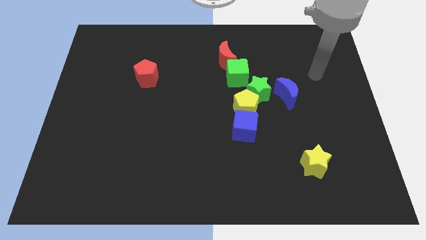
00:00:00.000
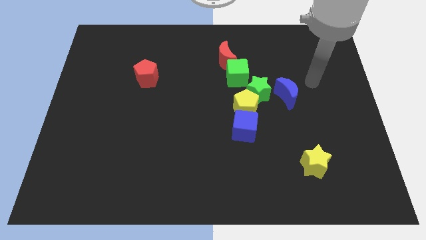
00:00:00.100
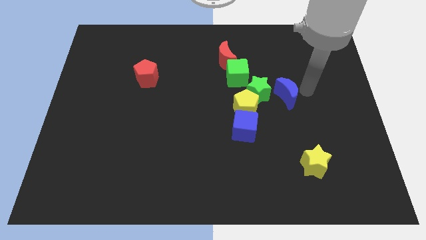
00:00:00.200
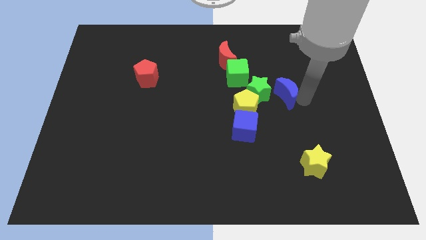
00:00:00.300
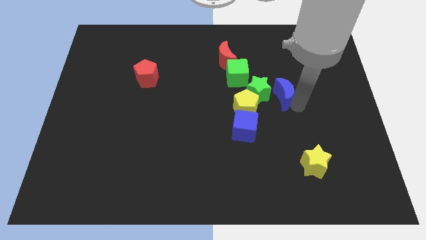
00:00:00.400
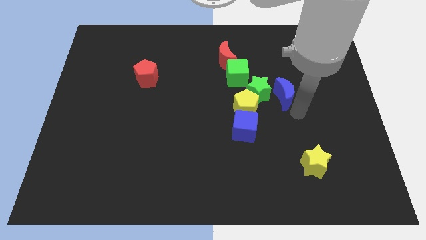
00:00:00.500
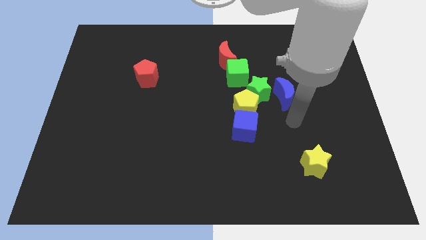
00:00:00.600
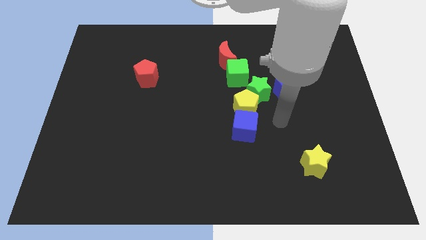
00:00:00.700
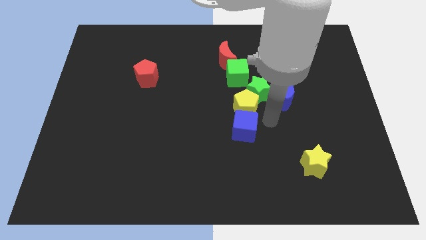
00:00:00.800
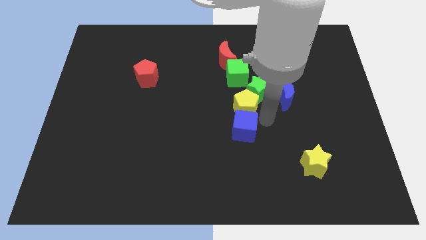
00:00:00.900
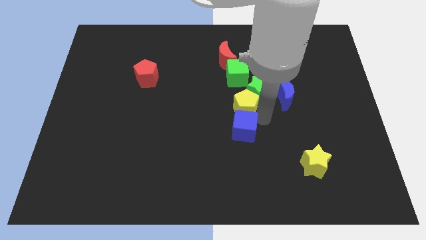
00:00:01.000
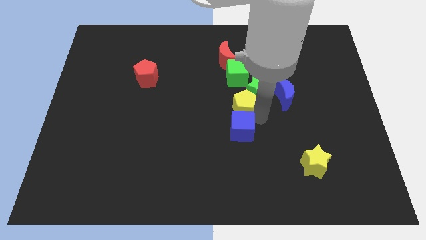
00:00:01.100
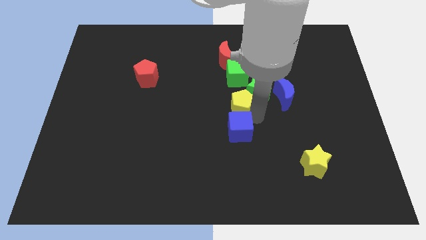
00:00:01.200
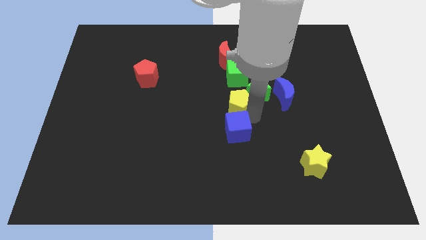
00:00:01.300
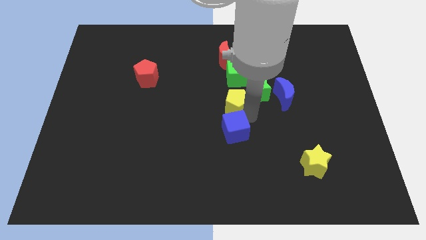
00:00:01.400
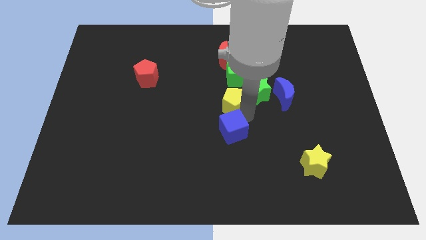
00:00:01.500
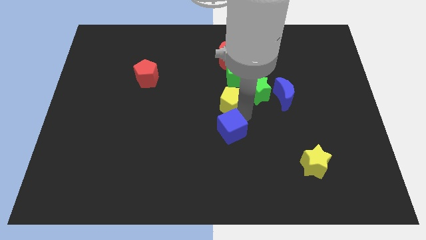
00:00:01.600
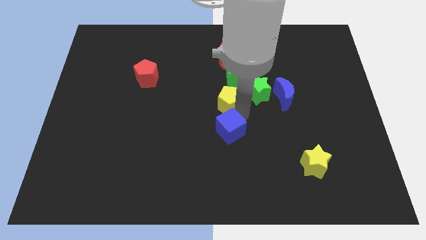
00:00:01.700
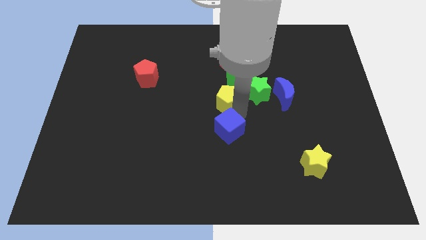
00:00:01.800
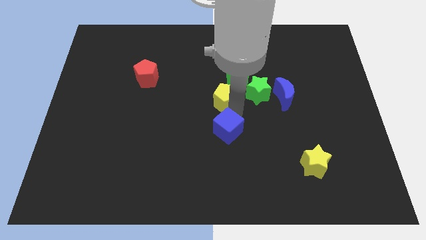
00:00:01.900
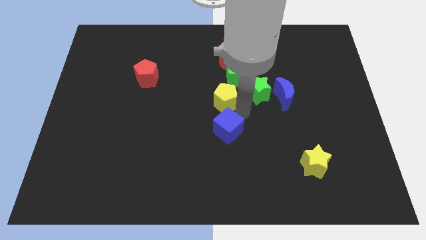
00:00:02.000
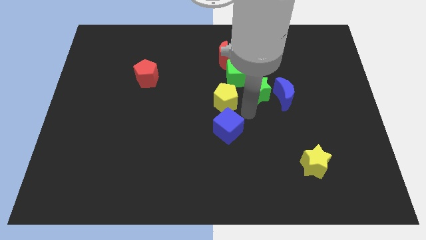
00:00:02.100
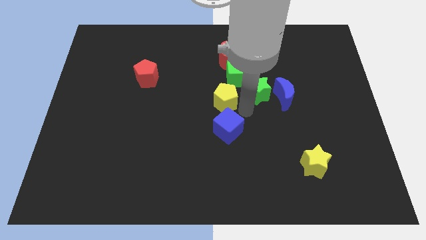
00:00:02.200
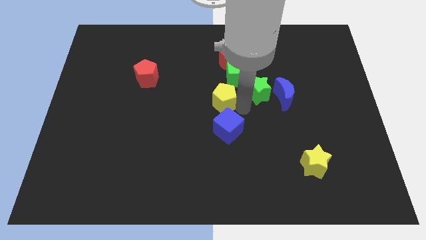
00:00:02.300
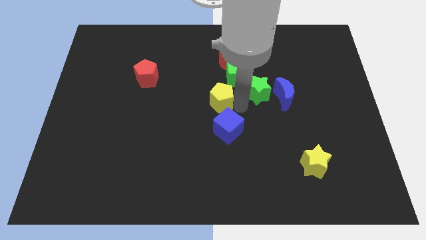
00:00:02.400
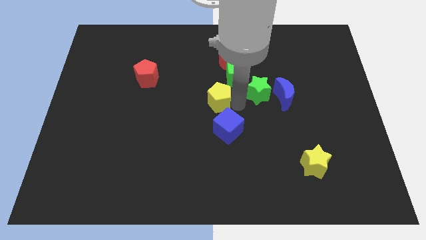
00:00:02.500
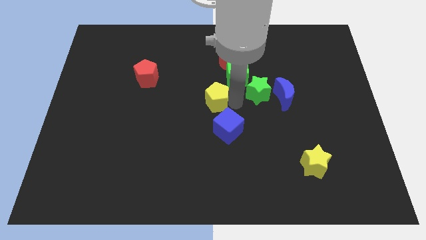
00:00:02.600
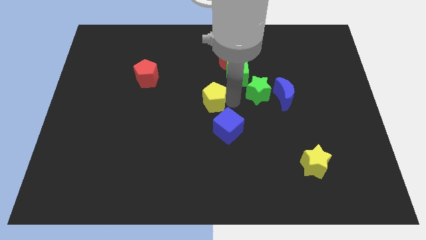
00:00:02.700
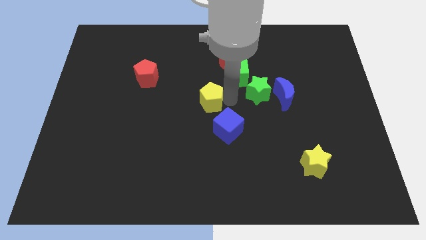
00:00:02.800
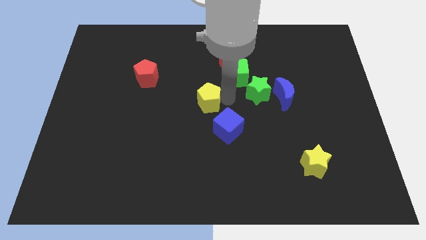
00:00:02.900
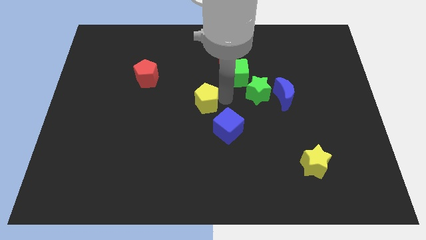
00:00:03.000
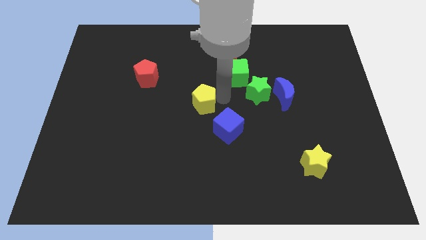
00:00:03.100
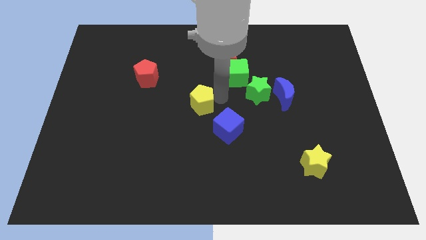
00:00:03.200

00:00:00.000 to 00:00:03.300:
pull the yellow pentagon apart from the green star and blue cube

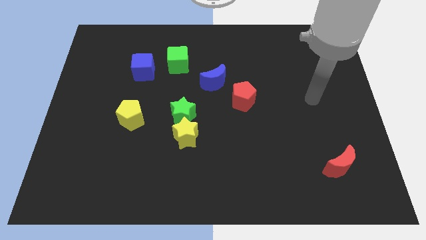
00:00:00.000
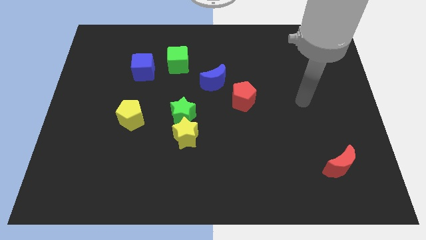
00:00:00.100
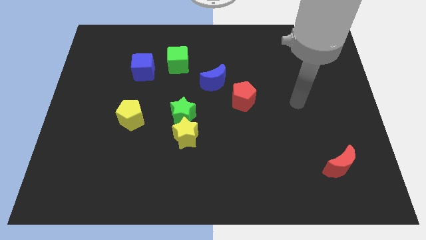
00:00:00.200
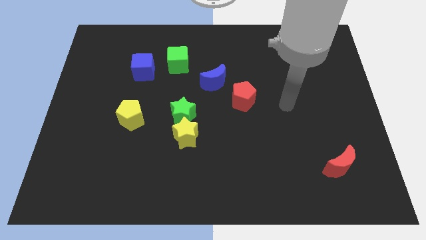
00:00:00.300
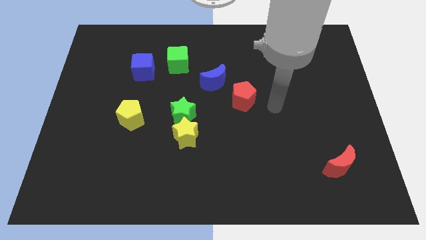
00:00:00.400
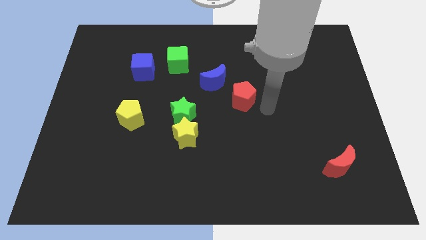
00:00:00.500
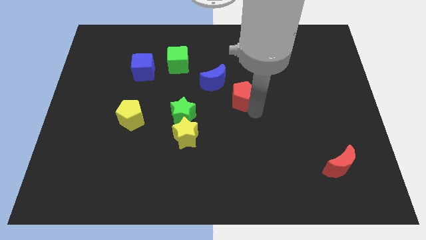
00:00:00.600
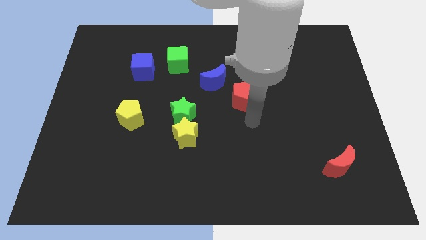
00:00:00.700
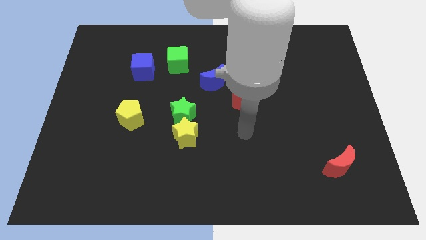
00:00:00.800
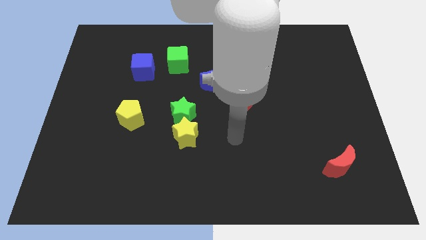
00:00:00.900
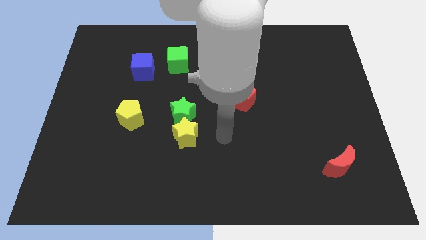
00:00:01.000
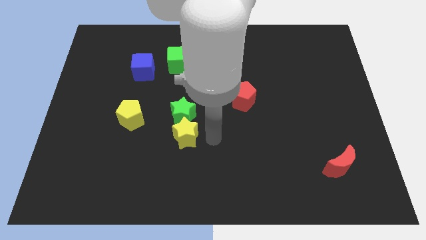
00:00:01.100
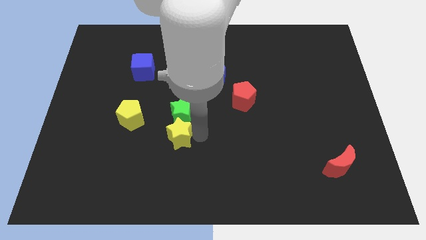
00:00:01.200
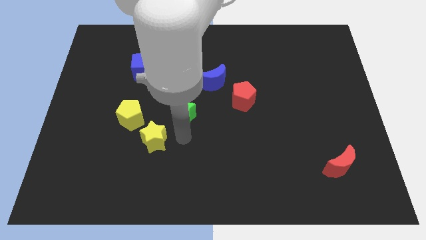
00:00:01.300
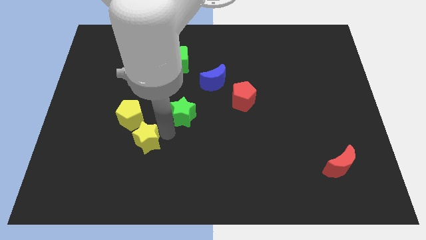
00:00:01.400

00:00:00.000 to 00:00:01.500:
pull the green star apart from the yellow star

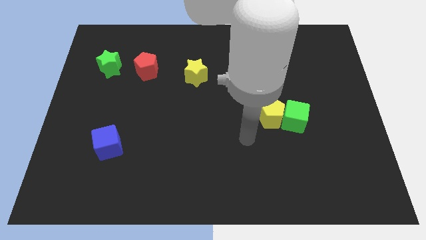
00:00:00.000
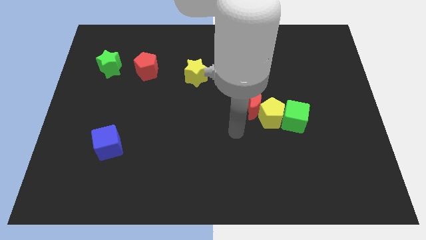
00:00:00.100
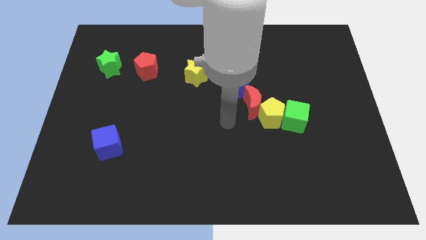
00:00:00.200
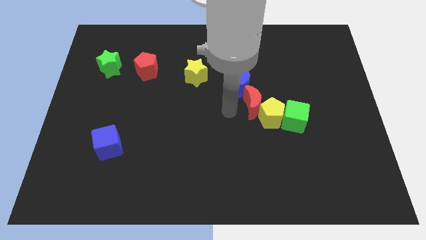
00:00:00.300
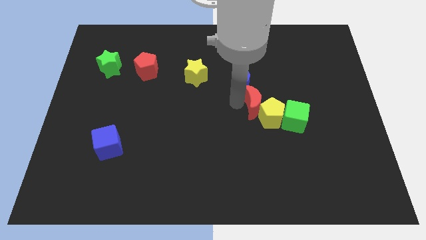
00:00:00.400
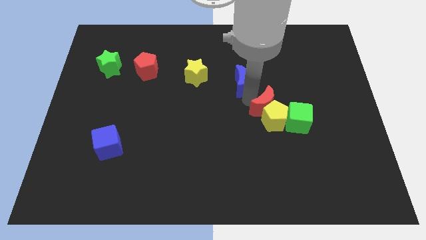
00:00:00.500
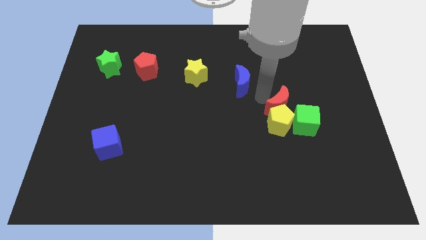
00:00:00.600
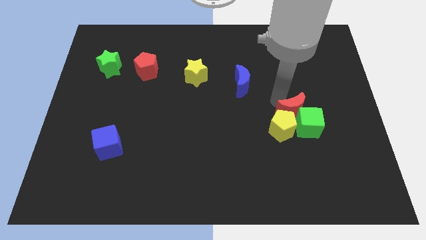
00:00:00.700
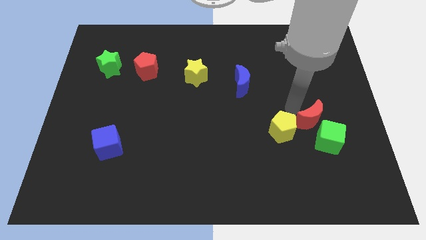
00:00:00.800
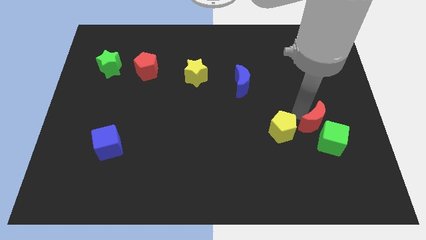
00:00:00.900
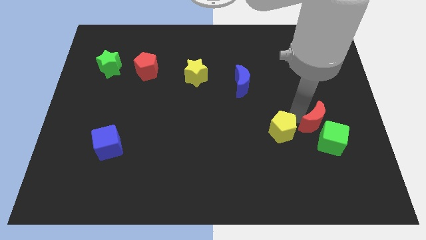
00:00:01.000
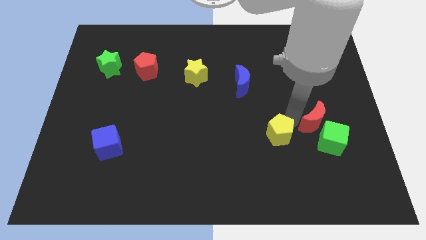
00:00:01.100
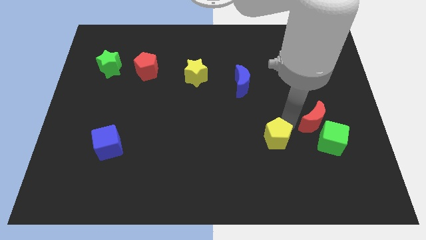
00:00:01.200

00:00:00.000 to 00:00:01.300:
move the yellow pentagon away from the red moon and green cube

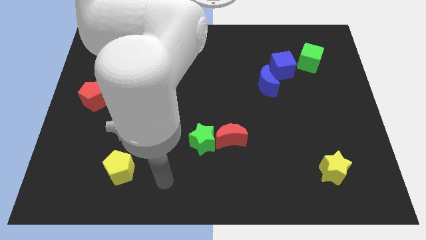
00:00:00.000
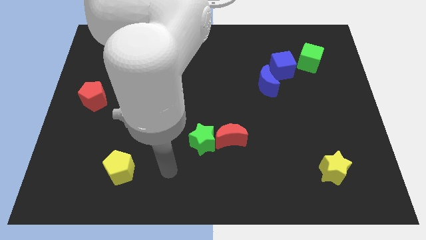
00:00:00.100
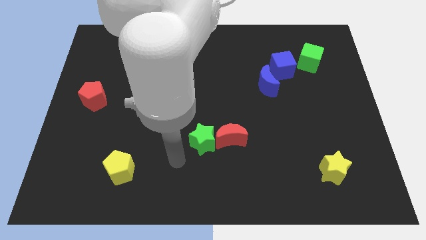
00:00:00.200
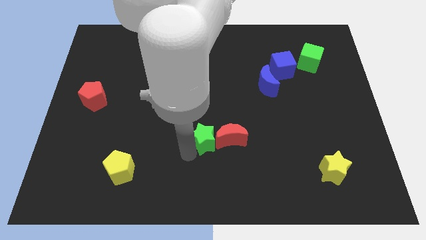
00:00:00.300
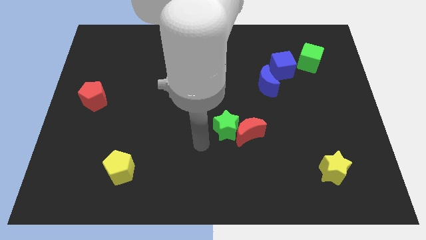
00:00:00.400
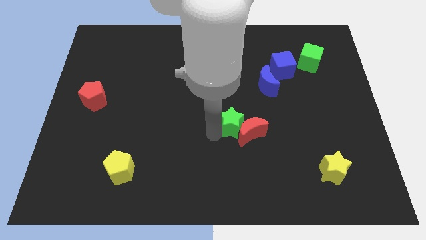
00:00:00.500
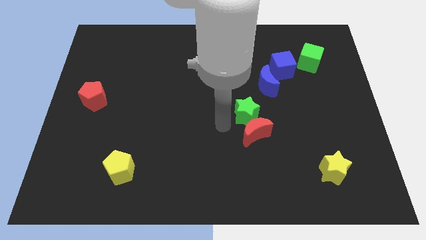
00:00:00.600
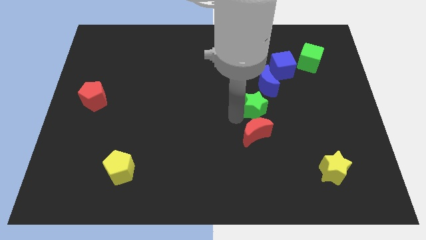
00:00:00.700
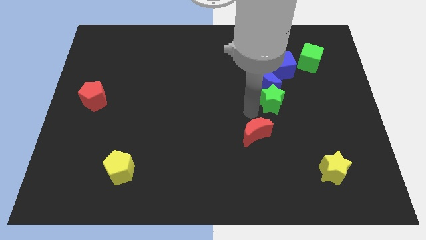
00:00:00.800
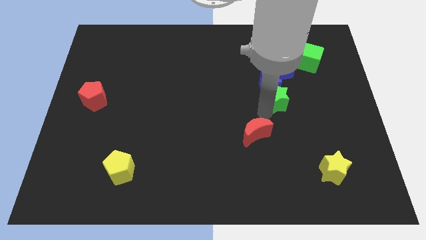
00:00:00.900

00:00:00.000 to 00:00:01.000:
separate the red moon from the green star

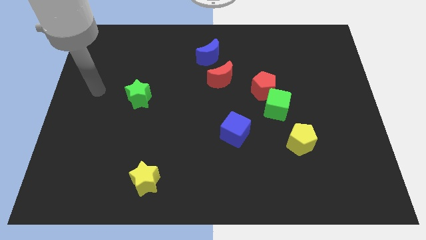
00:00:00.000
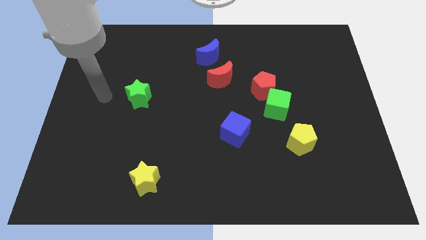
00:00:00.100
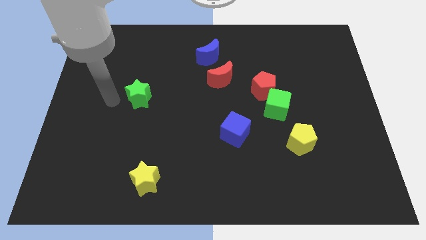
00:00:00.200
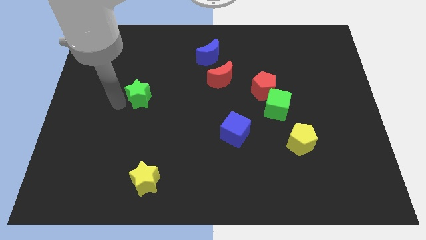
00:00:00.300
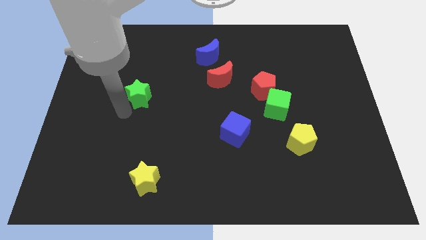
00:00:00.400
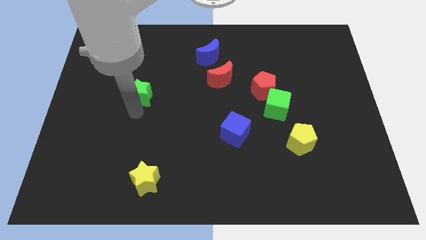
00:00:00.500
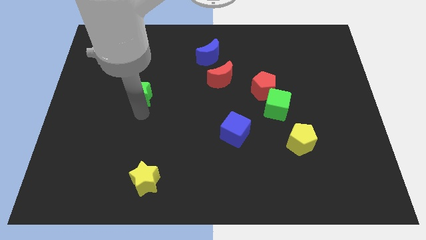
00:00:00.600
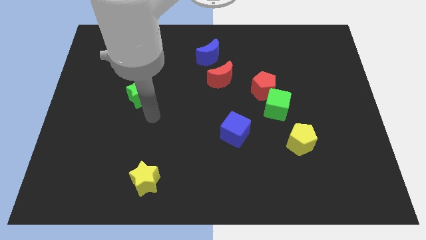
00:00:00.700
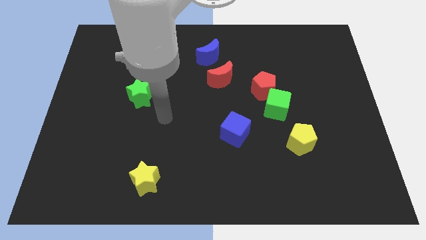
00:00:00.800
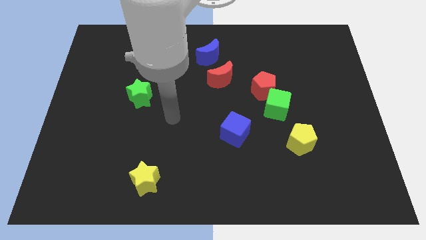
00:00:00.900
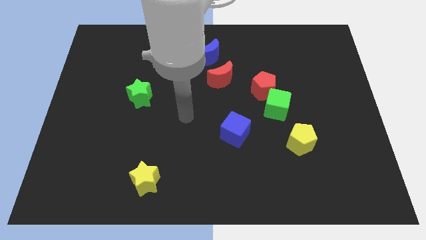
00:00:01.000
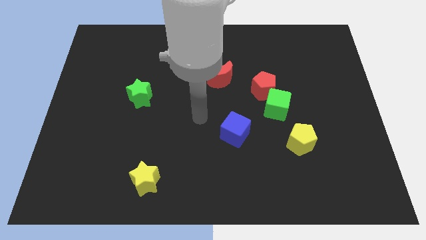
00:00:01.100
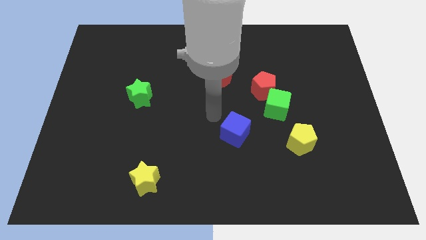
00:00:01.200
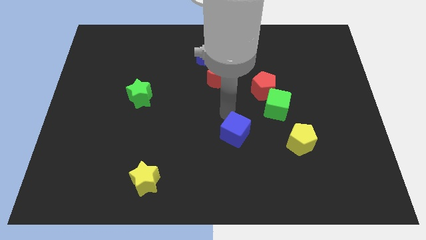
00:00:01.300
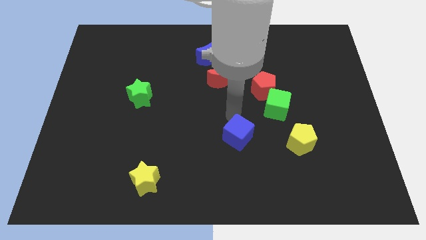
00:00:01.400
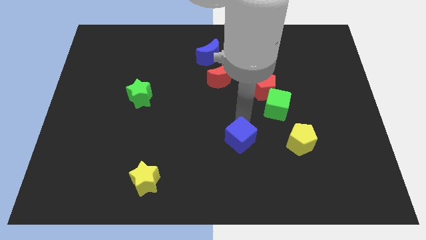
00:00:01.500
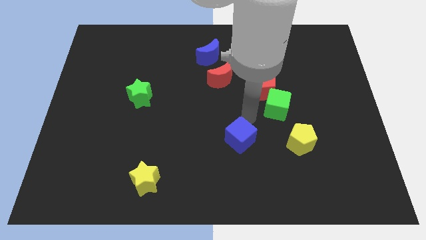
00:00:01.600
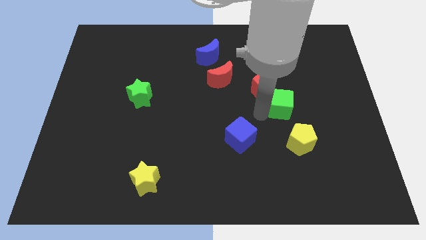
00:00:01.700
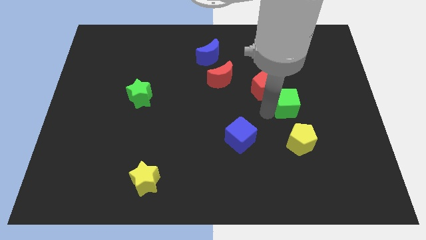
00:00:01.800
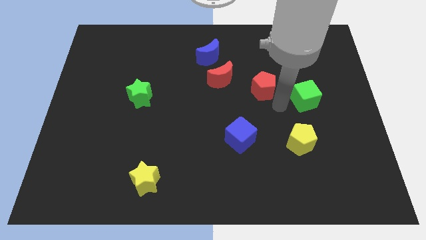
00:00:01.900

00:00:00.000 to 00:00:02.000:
move the red pentagon away from the green cube

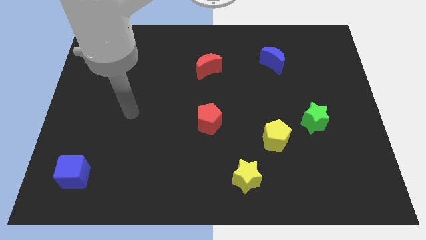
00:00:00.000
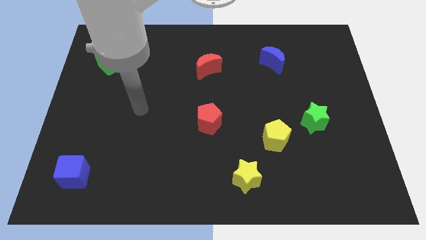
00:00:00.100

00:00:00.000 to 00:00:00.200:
move the green star away from the yellow pentagon
